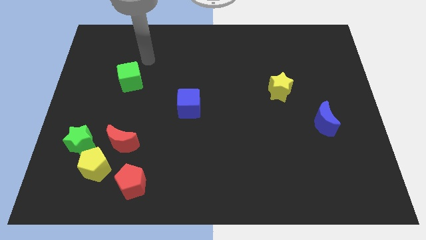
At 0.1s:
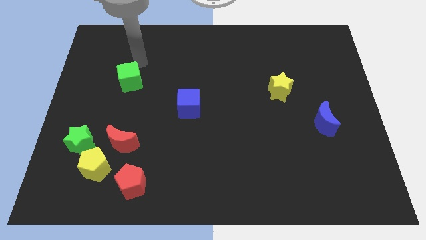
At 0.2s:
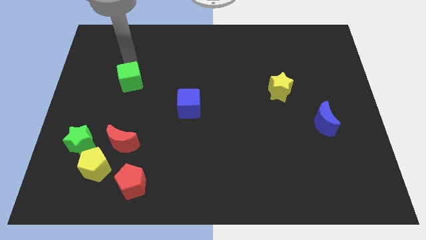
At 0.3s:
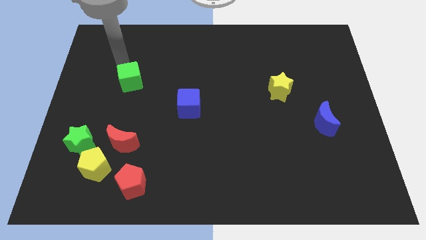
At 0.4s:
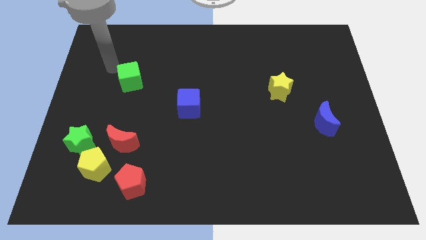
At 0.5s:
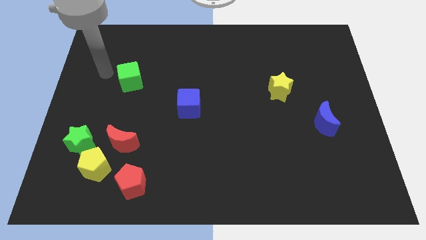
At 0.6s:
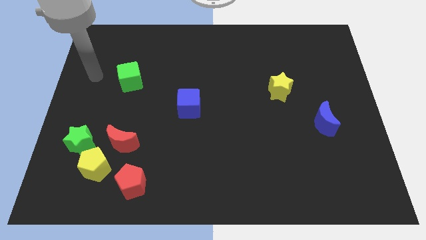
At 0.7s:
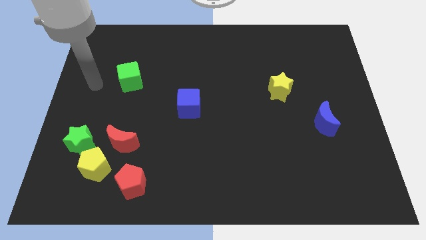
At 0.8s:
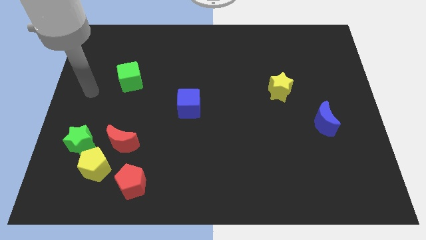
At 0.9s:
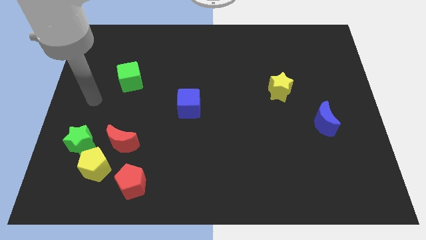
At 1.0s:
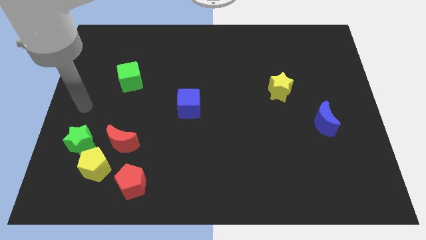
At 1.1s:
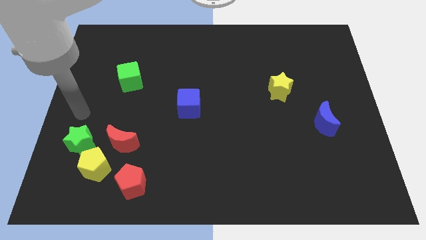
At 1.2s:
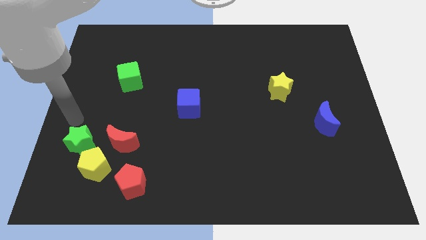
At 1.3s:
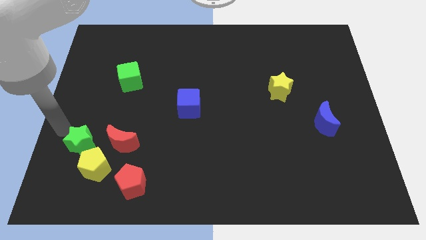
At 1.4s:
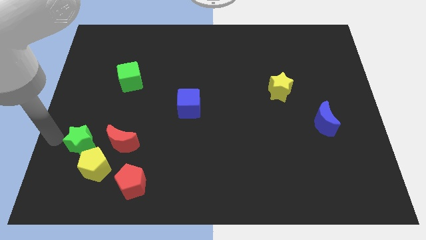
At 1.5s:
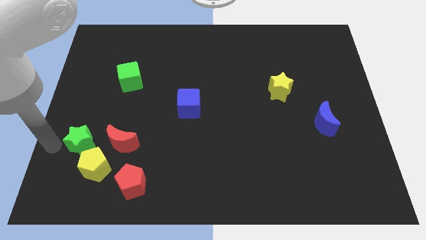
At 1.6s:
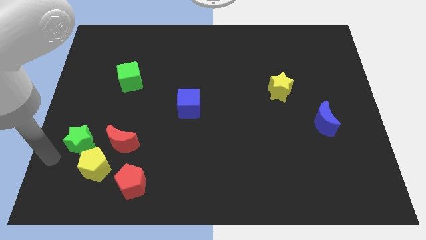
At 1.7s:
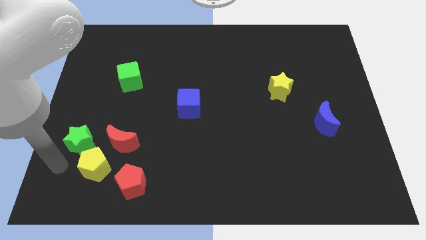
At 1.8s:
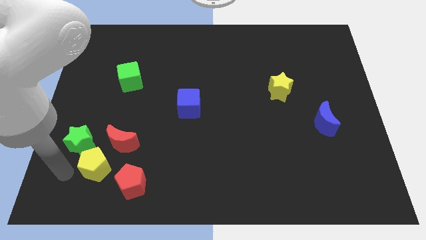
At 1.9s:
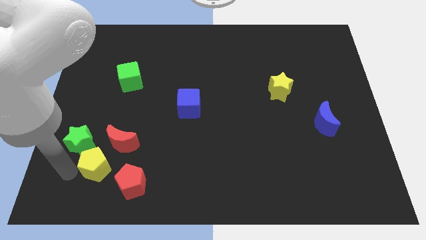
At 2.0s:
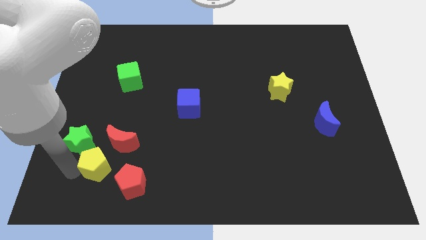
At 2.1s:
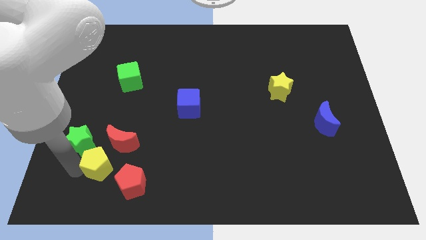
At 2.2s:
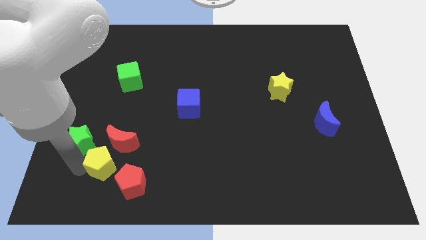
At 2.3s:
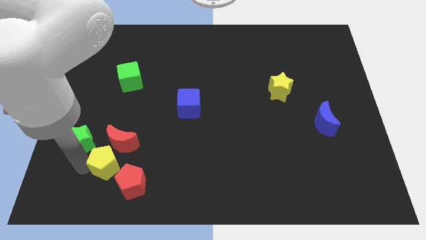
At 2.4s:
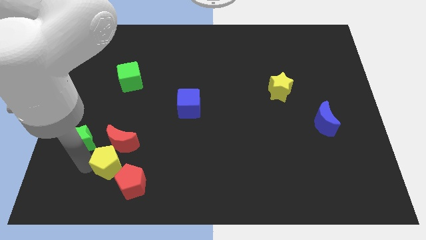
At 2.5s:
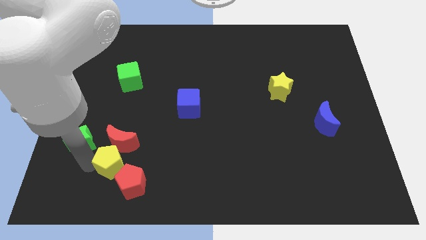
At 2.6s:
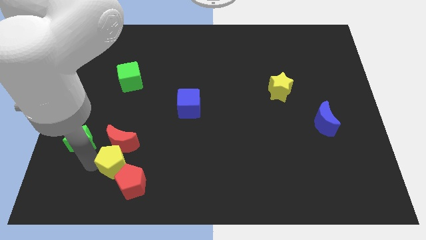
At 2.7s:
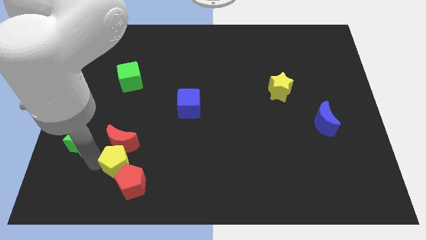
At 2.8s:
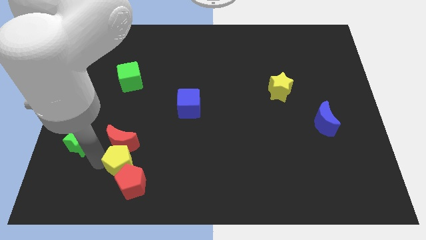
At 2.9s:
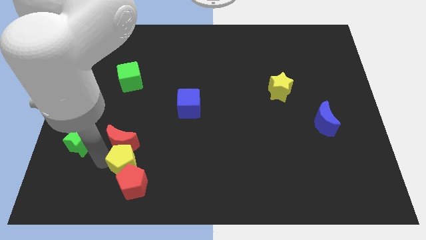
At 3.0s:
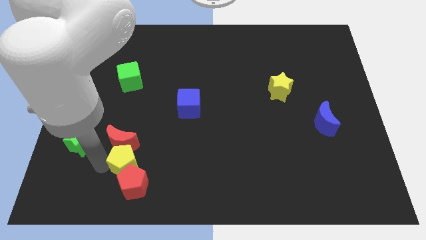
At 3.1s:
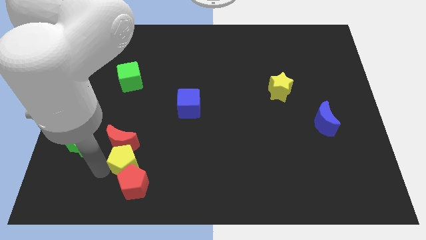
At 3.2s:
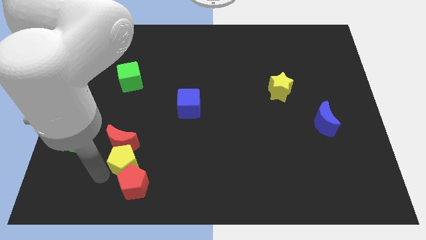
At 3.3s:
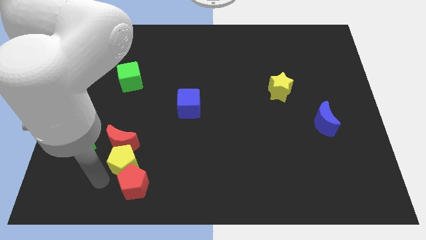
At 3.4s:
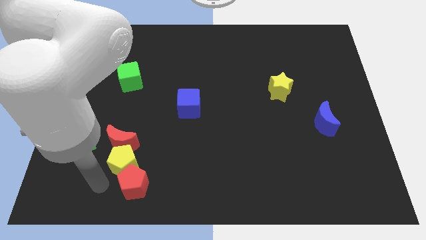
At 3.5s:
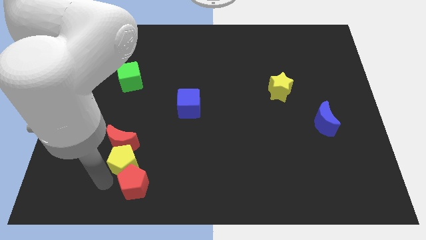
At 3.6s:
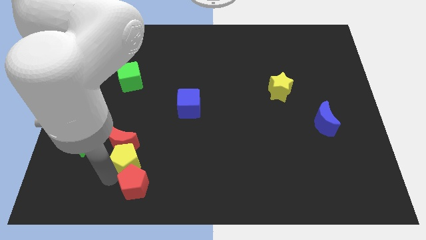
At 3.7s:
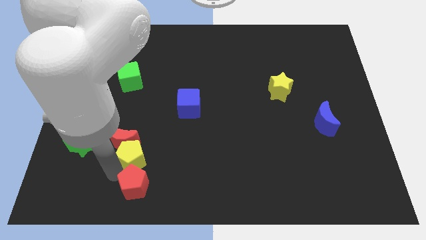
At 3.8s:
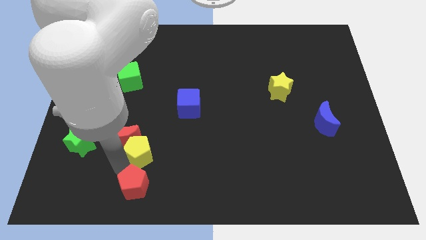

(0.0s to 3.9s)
slide the yellow pentagon a little diagonally upwards and right

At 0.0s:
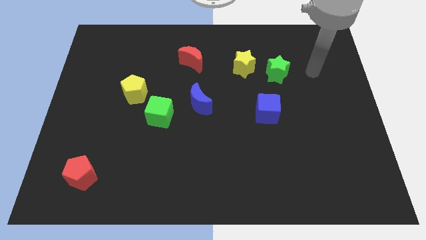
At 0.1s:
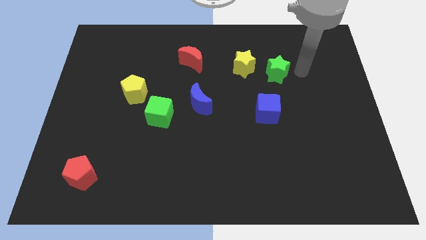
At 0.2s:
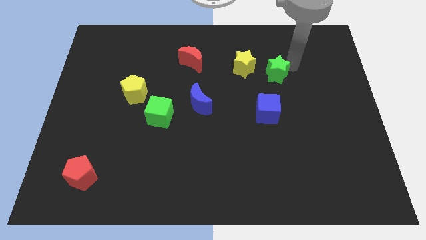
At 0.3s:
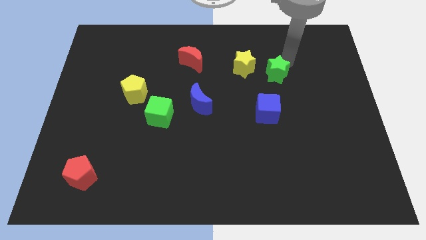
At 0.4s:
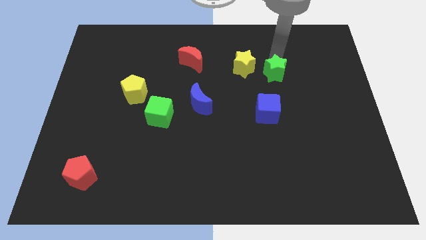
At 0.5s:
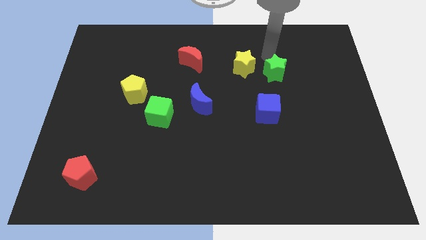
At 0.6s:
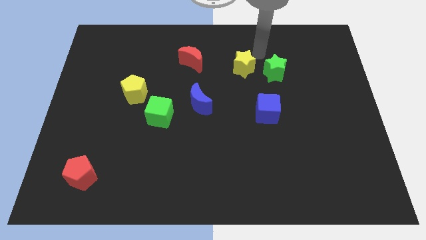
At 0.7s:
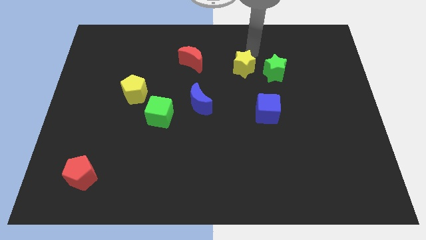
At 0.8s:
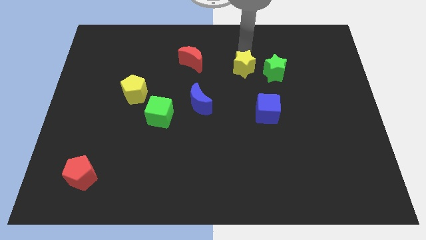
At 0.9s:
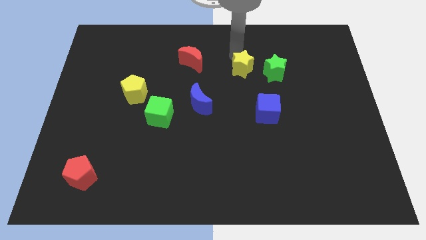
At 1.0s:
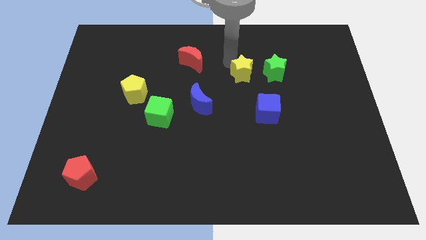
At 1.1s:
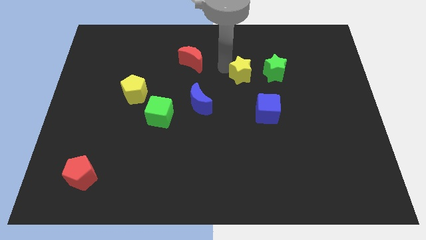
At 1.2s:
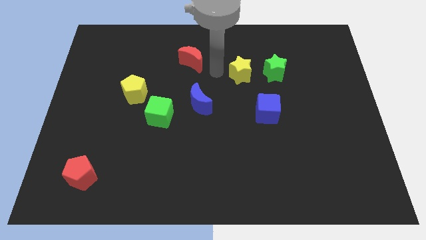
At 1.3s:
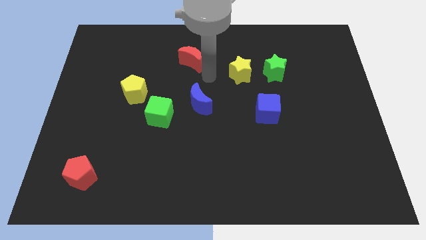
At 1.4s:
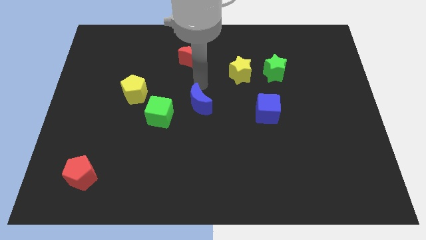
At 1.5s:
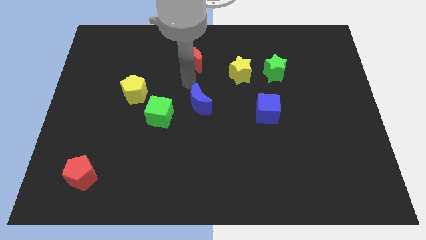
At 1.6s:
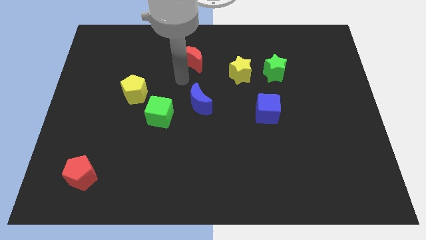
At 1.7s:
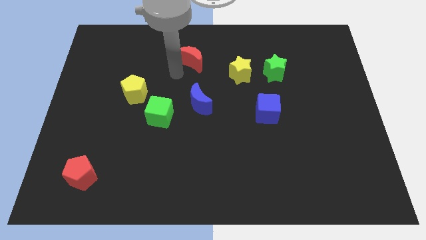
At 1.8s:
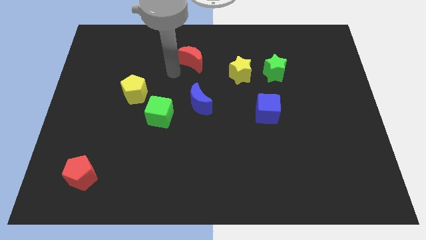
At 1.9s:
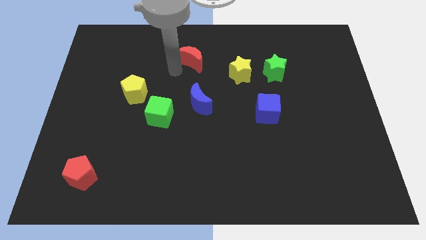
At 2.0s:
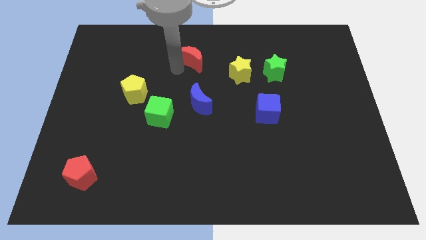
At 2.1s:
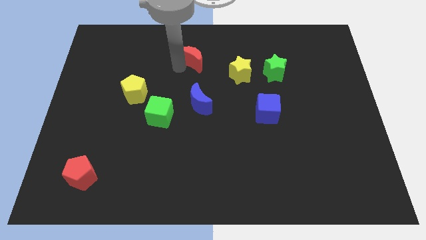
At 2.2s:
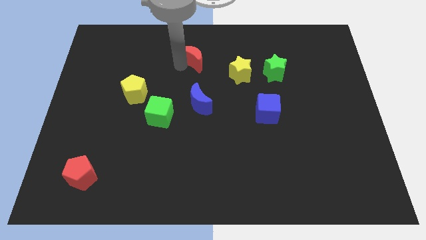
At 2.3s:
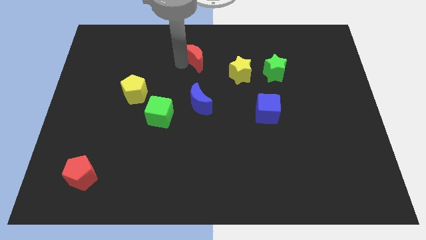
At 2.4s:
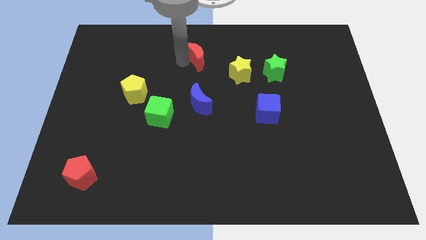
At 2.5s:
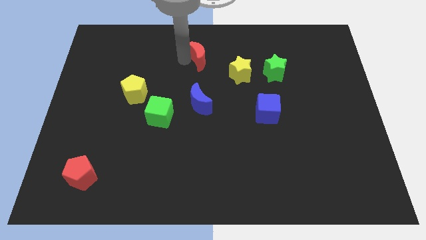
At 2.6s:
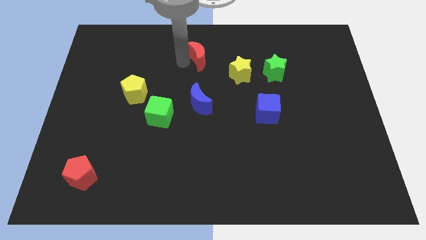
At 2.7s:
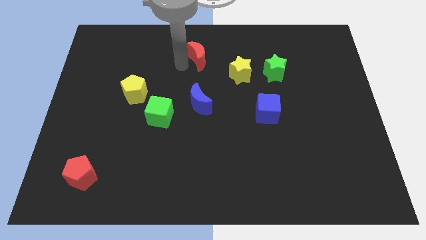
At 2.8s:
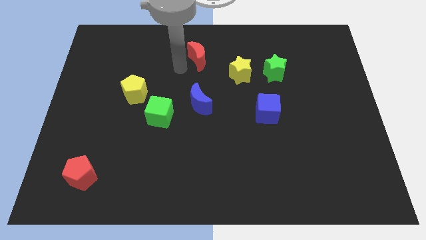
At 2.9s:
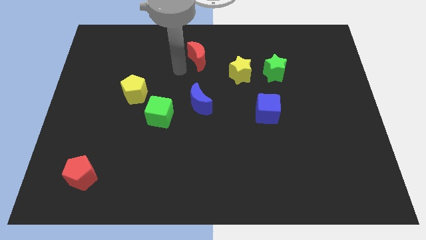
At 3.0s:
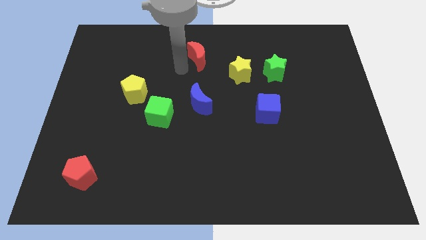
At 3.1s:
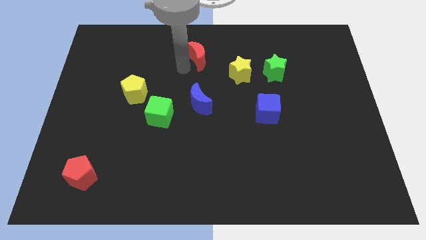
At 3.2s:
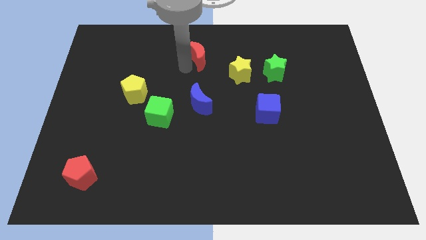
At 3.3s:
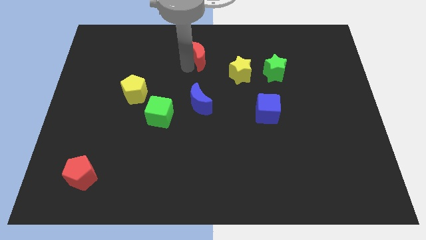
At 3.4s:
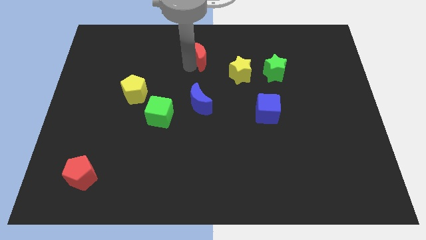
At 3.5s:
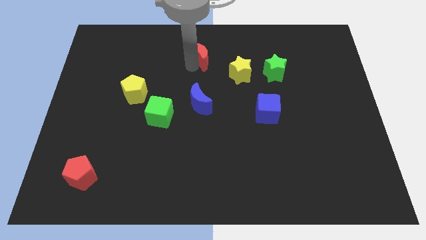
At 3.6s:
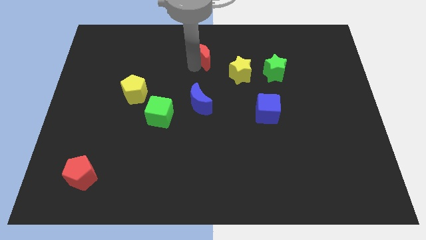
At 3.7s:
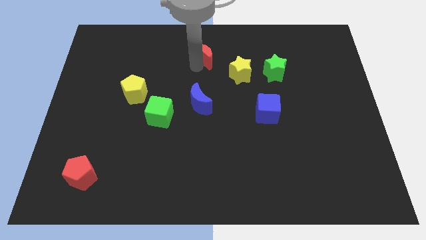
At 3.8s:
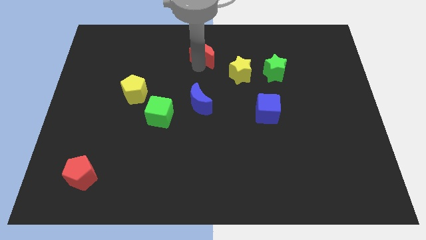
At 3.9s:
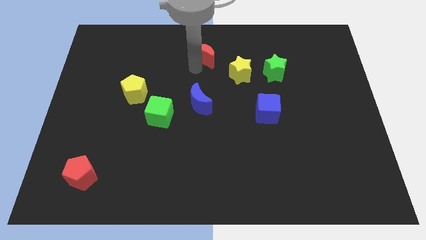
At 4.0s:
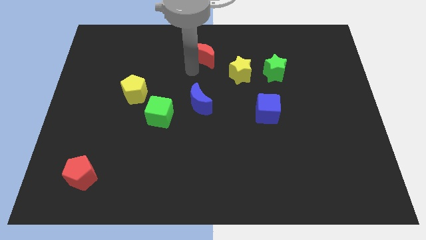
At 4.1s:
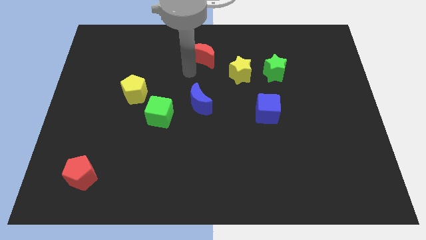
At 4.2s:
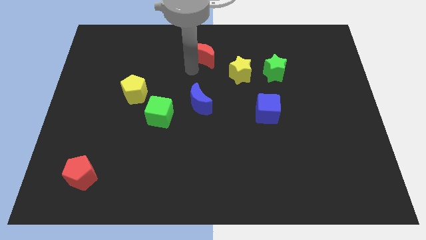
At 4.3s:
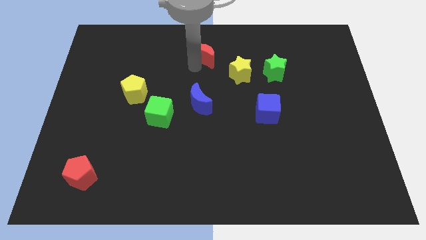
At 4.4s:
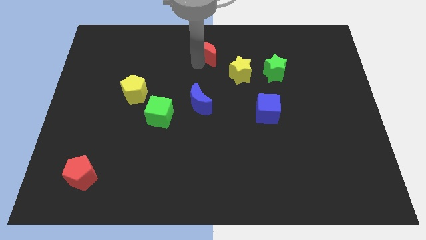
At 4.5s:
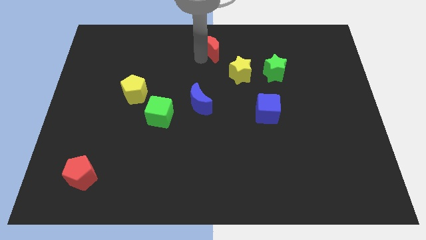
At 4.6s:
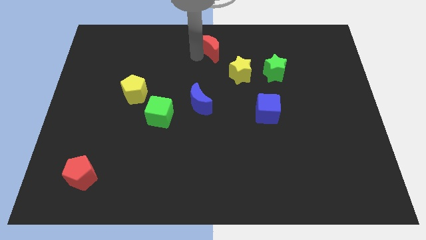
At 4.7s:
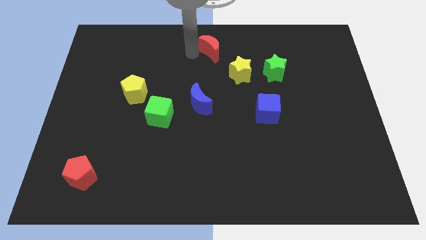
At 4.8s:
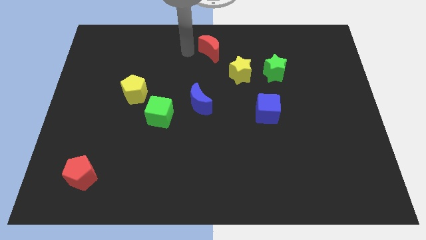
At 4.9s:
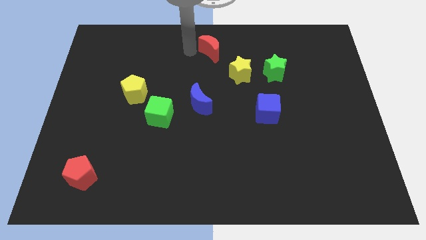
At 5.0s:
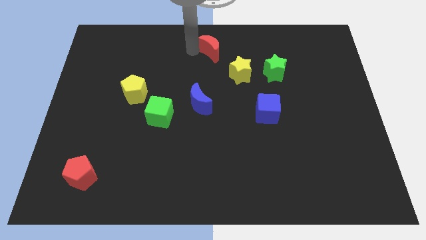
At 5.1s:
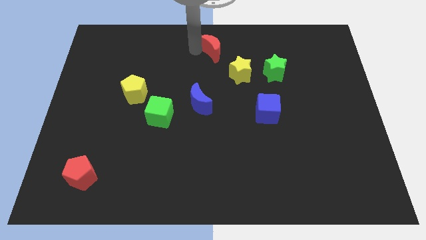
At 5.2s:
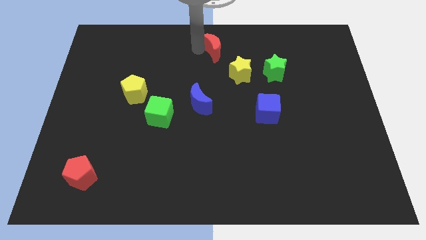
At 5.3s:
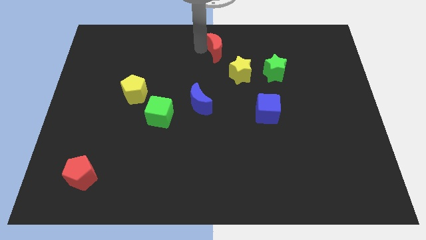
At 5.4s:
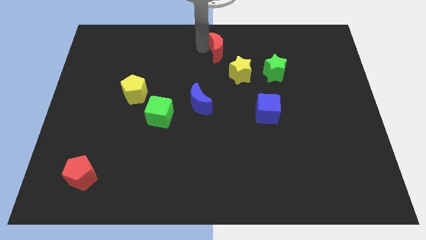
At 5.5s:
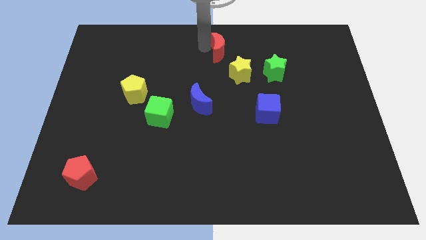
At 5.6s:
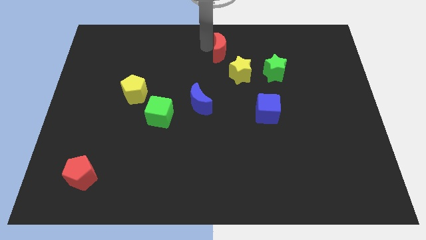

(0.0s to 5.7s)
slide the red moon a little bit to the right
